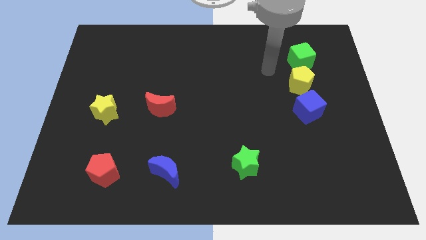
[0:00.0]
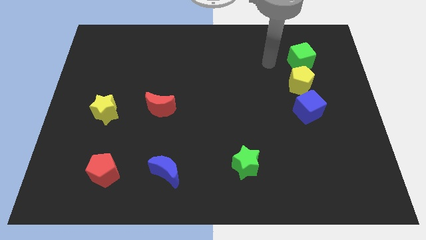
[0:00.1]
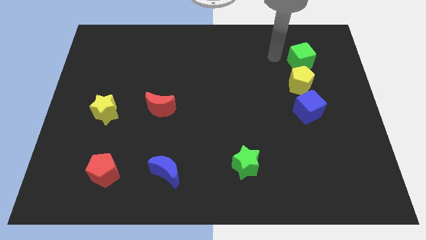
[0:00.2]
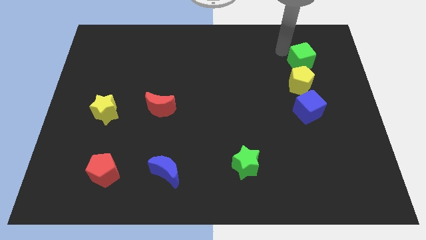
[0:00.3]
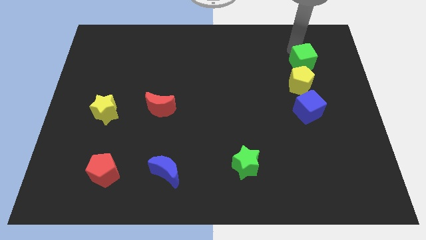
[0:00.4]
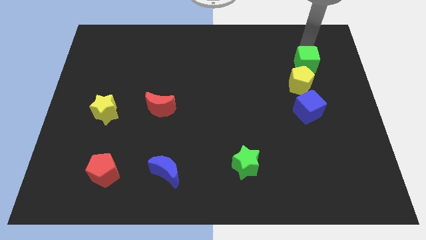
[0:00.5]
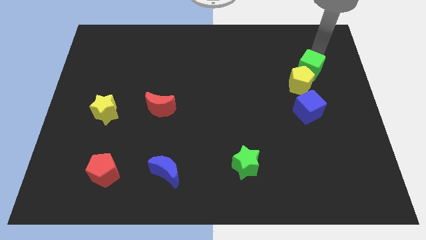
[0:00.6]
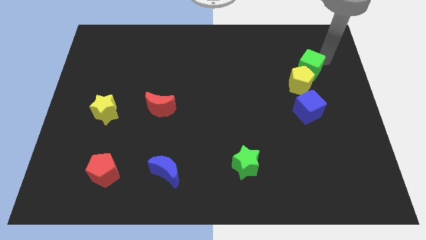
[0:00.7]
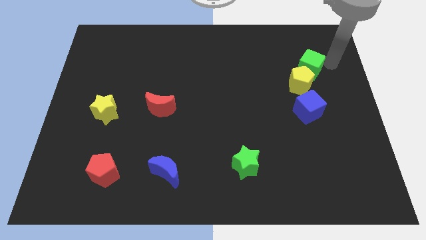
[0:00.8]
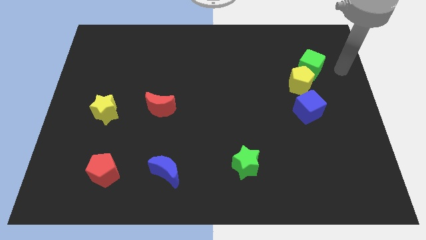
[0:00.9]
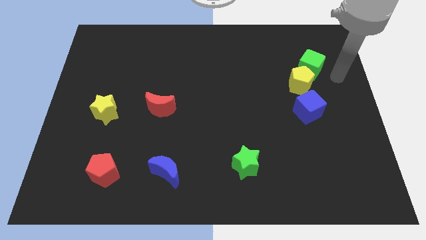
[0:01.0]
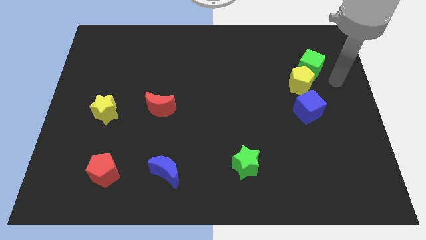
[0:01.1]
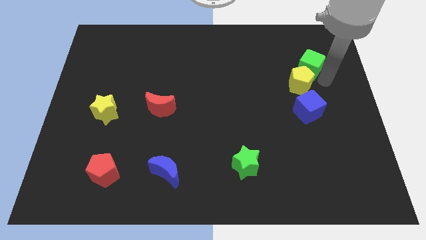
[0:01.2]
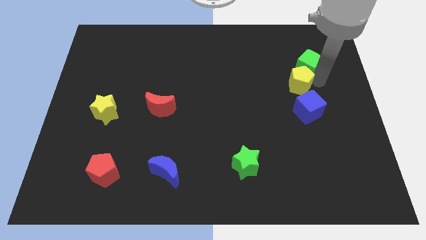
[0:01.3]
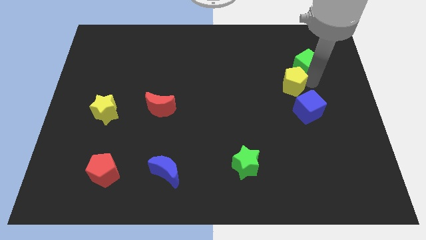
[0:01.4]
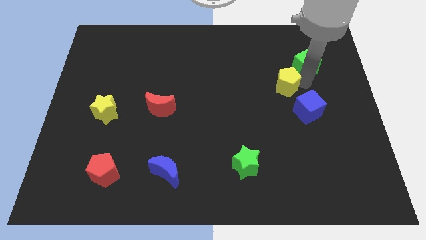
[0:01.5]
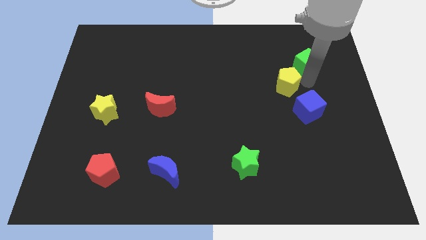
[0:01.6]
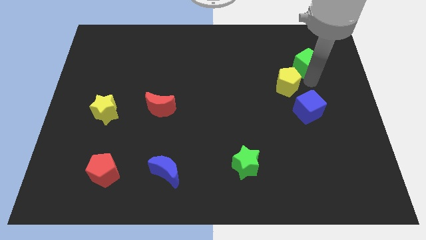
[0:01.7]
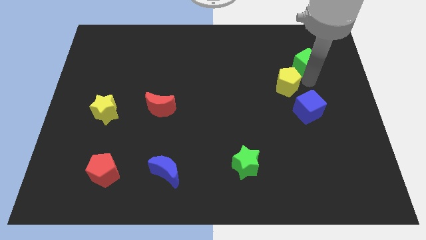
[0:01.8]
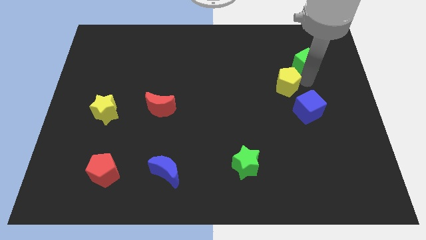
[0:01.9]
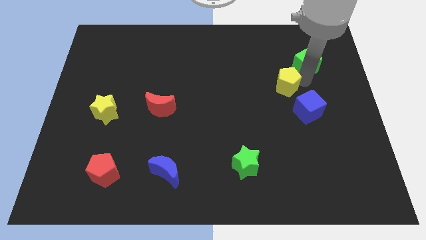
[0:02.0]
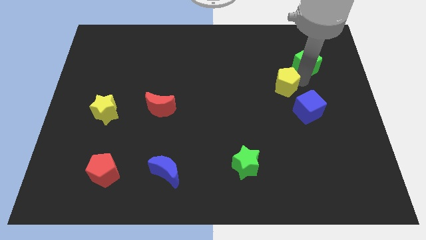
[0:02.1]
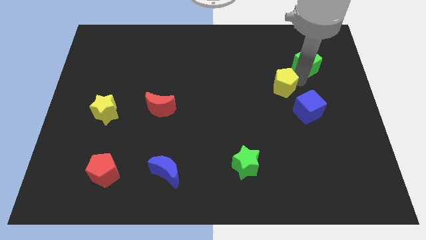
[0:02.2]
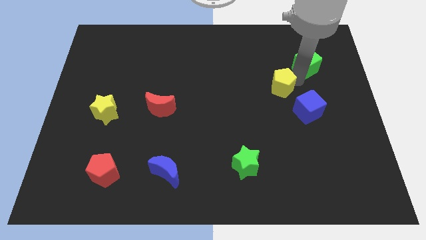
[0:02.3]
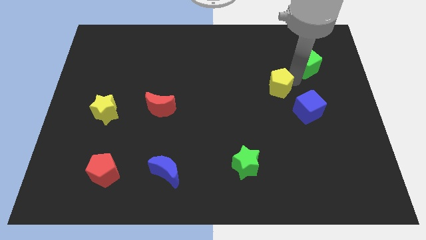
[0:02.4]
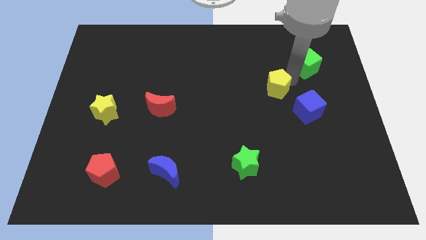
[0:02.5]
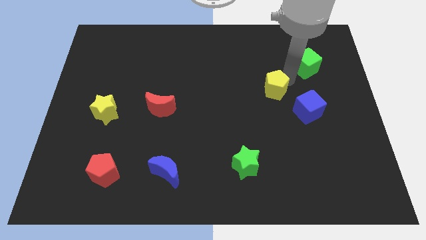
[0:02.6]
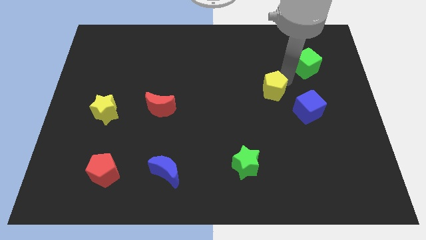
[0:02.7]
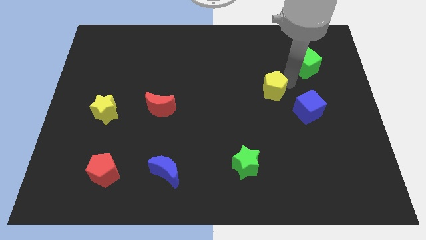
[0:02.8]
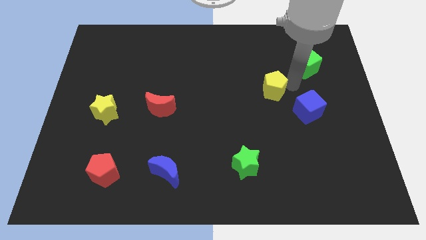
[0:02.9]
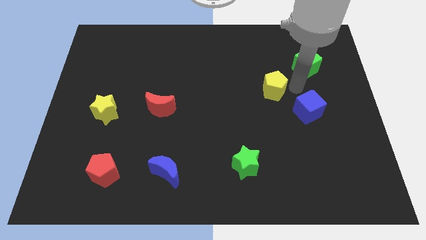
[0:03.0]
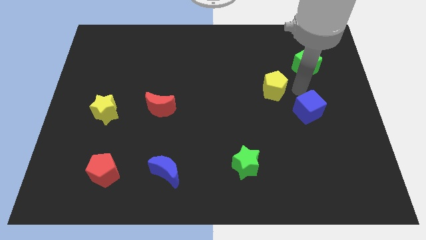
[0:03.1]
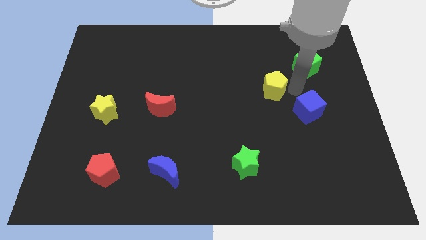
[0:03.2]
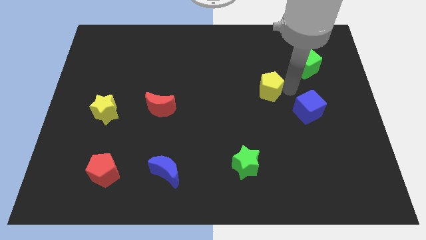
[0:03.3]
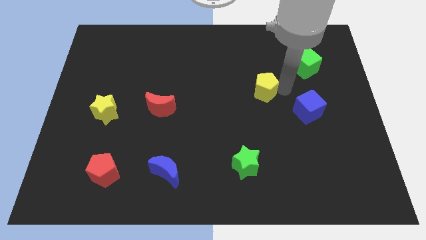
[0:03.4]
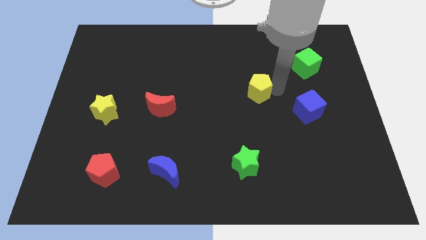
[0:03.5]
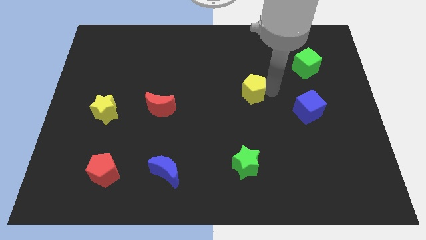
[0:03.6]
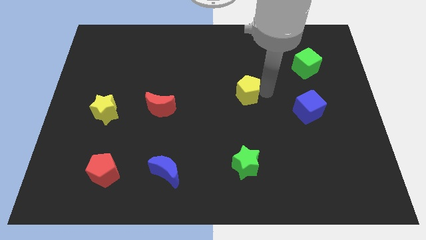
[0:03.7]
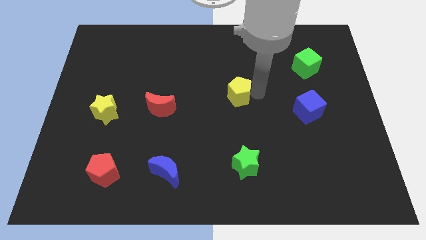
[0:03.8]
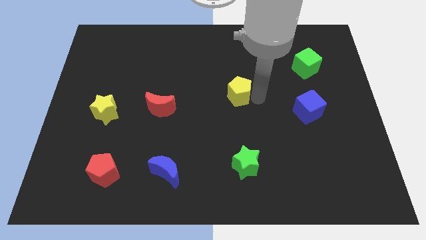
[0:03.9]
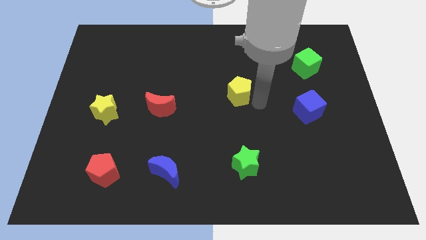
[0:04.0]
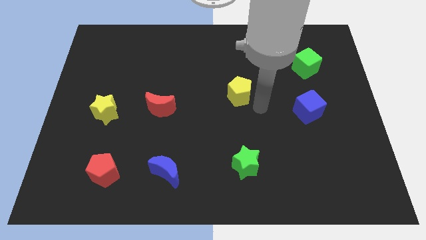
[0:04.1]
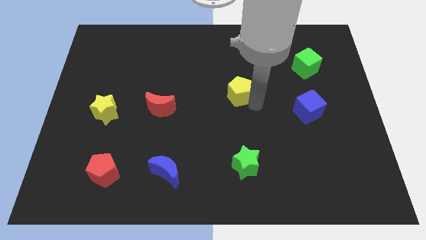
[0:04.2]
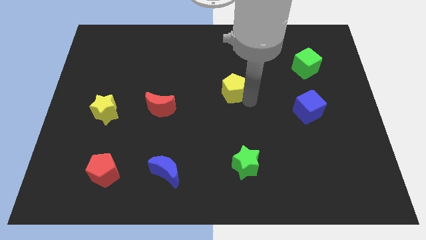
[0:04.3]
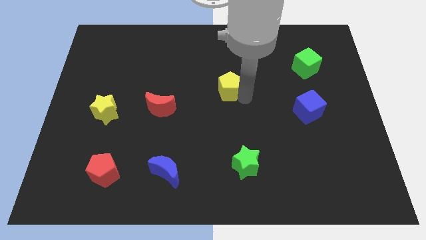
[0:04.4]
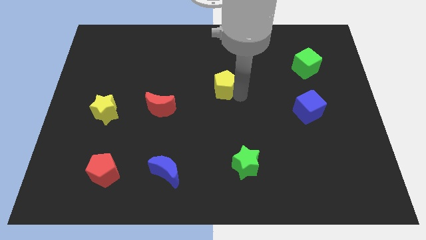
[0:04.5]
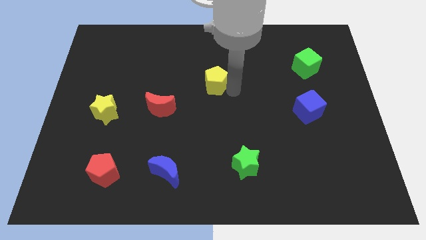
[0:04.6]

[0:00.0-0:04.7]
slide the yellow pentagon left

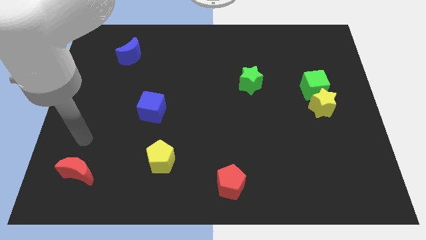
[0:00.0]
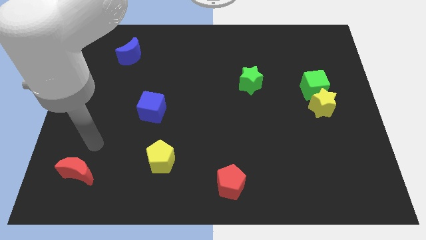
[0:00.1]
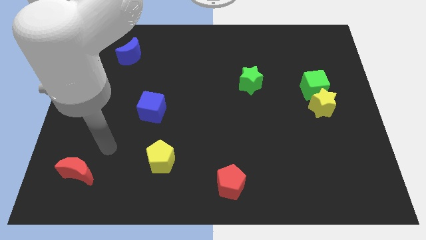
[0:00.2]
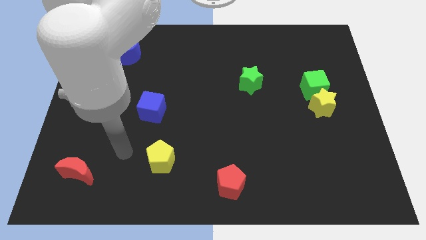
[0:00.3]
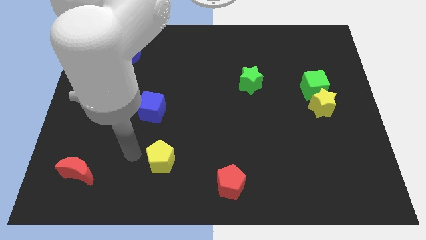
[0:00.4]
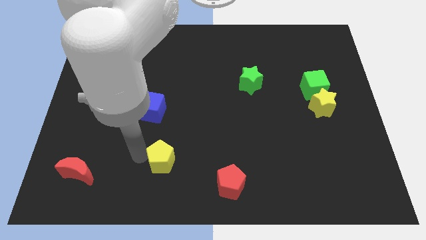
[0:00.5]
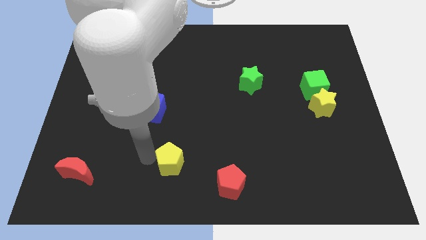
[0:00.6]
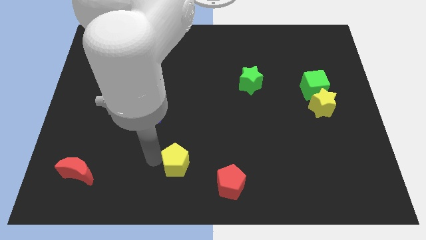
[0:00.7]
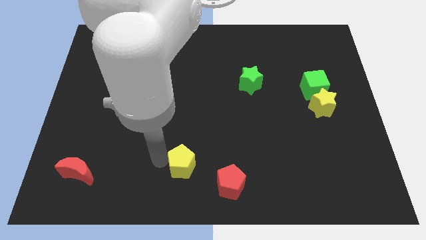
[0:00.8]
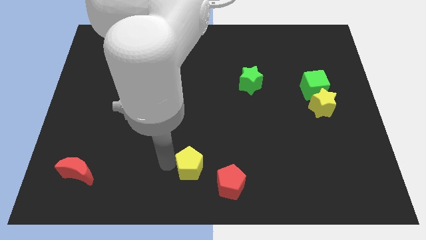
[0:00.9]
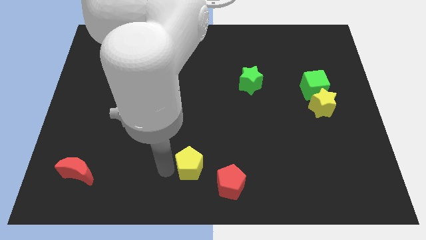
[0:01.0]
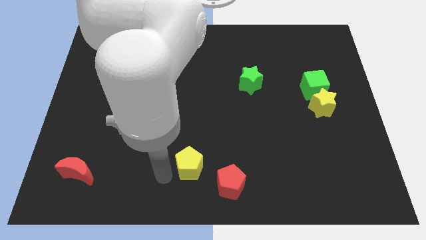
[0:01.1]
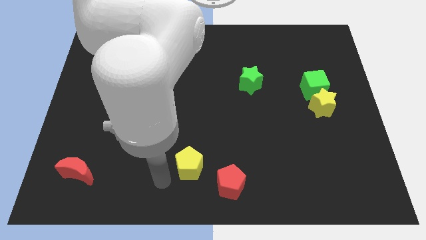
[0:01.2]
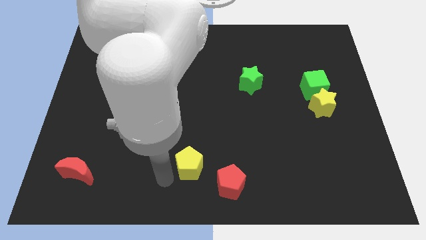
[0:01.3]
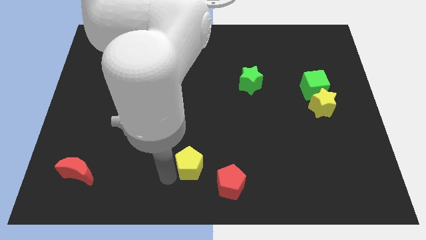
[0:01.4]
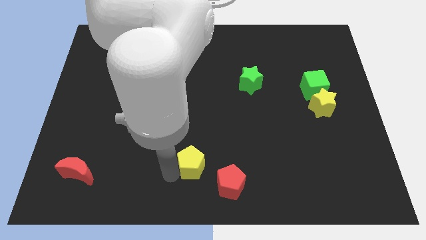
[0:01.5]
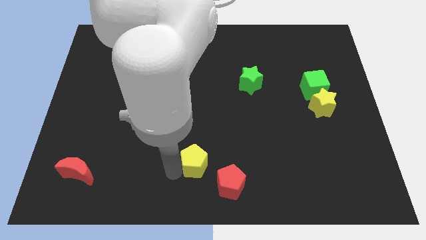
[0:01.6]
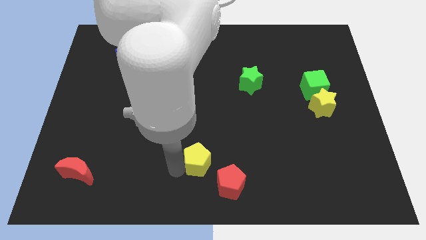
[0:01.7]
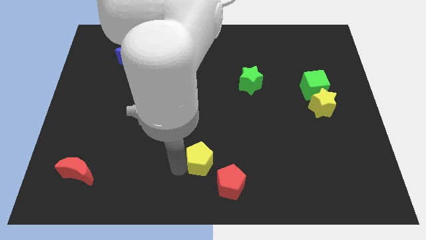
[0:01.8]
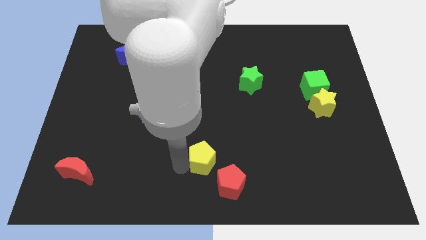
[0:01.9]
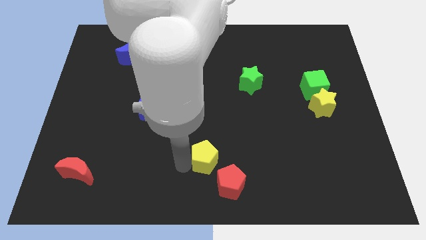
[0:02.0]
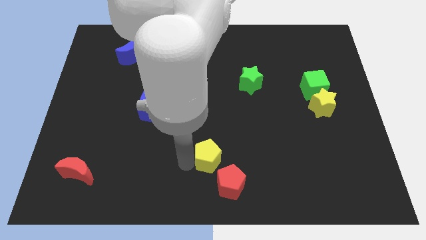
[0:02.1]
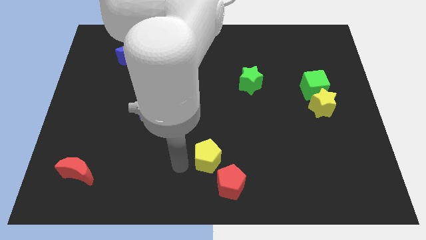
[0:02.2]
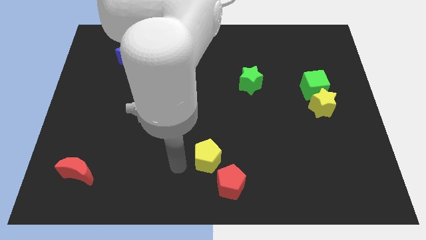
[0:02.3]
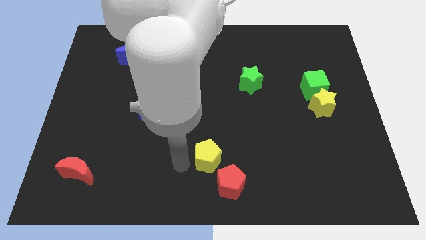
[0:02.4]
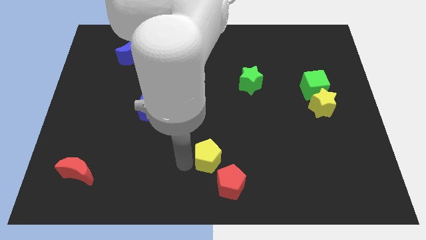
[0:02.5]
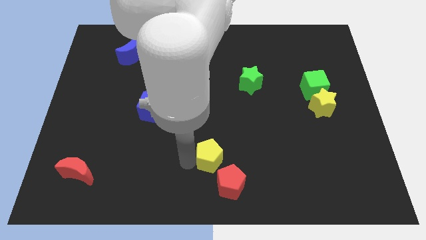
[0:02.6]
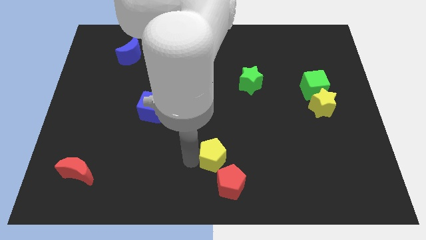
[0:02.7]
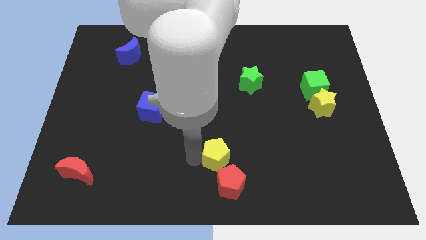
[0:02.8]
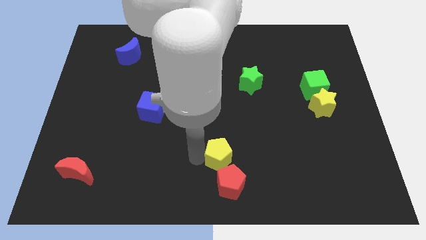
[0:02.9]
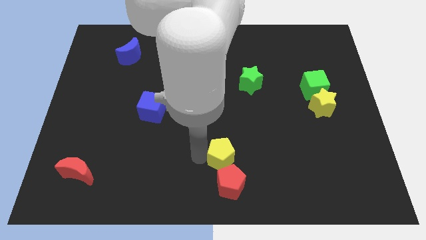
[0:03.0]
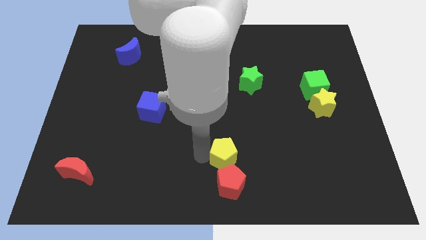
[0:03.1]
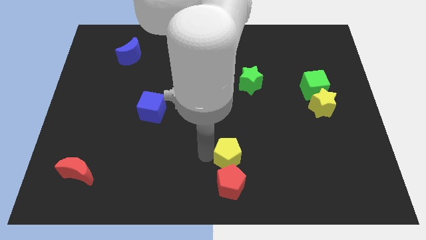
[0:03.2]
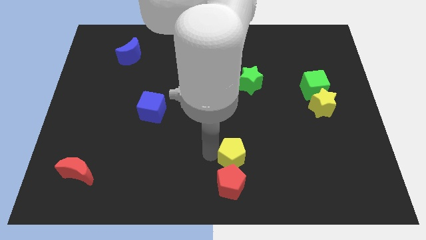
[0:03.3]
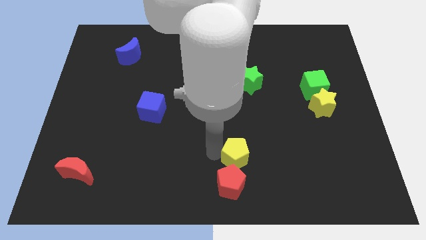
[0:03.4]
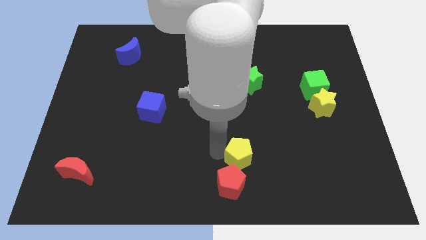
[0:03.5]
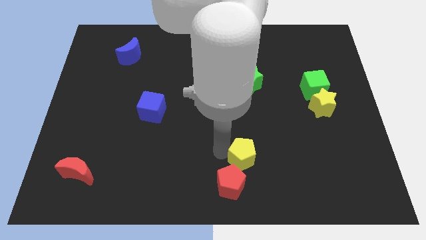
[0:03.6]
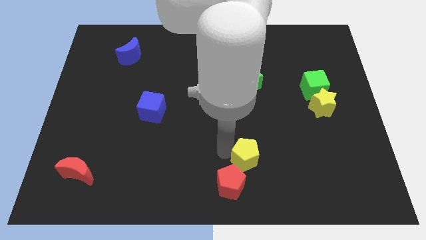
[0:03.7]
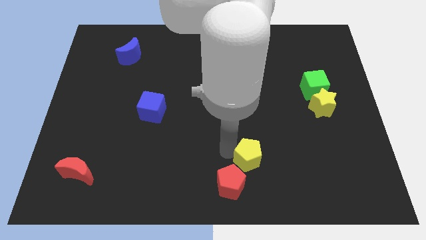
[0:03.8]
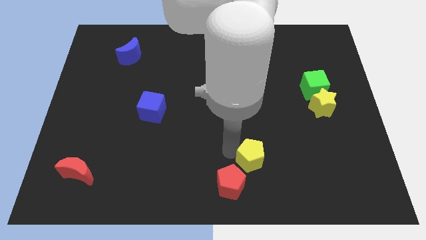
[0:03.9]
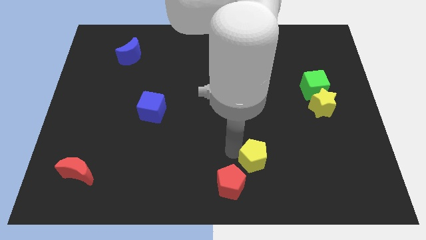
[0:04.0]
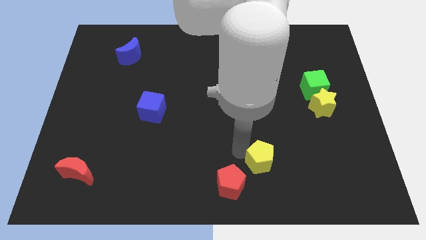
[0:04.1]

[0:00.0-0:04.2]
push the yellow pentagon to the right
